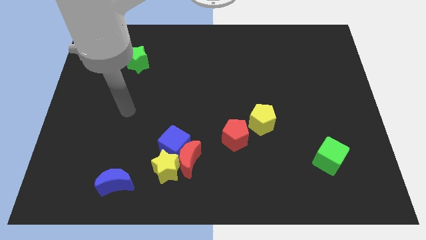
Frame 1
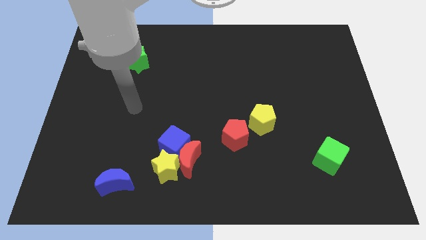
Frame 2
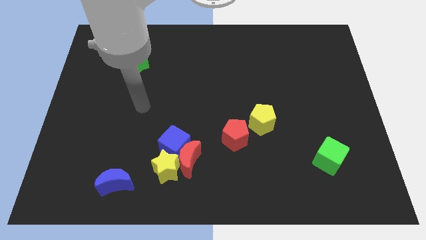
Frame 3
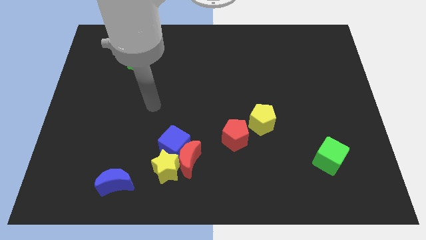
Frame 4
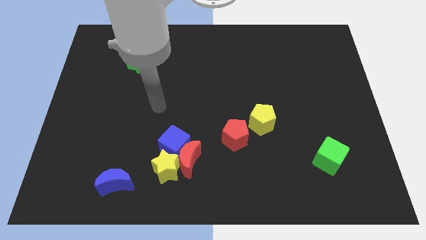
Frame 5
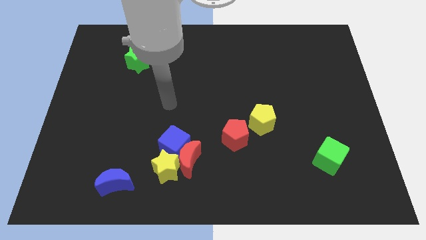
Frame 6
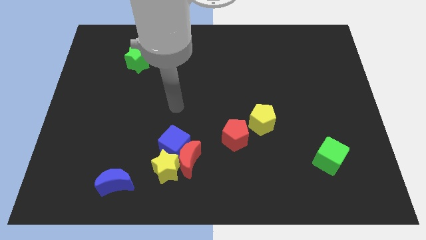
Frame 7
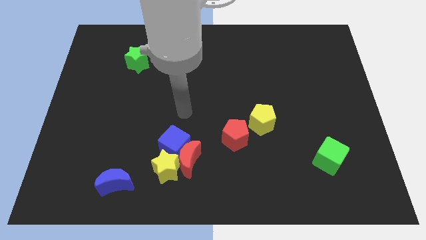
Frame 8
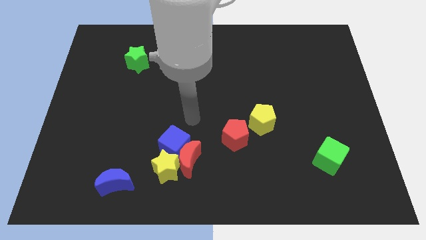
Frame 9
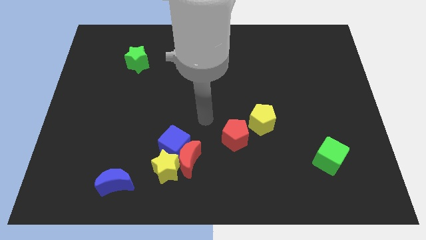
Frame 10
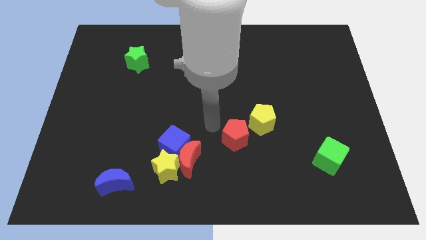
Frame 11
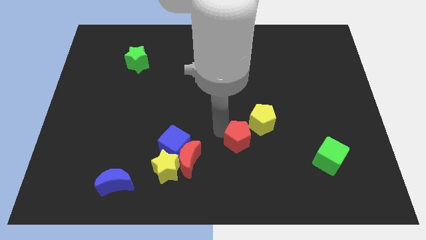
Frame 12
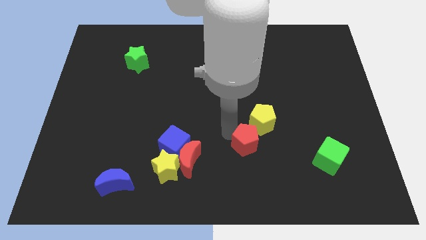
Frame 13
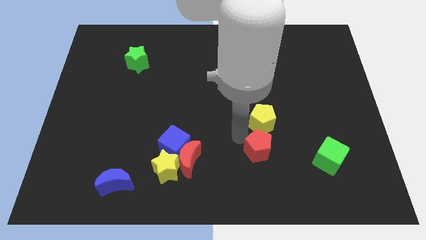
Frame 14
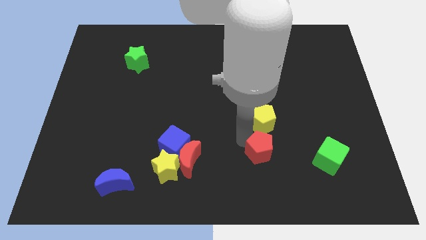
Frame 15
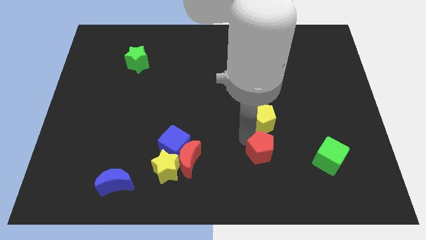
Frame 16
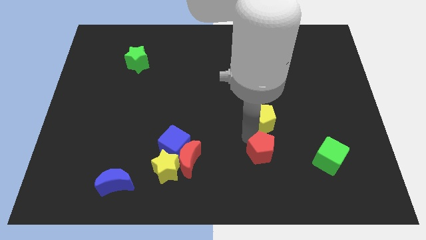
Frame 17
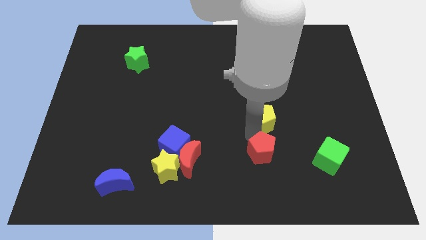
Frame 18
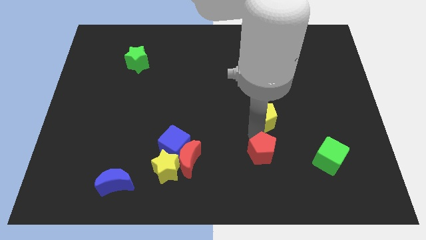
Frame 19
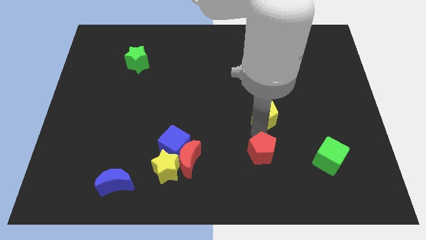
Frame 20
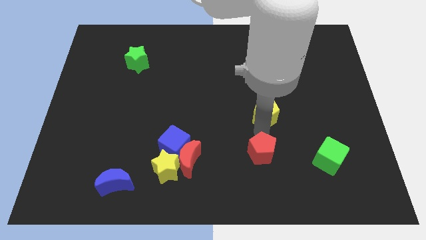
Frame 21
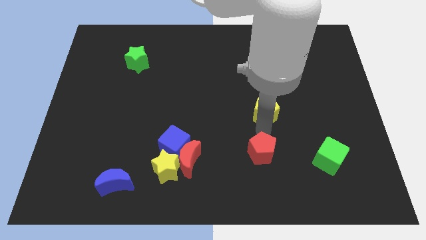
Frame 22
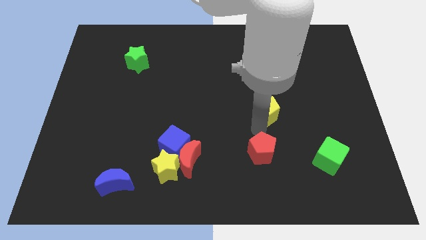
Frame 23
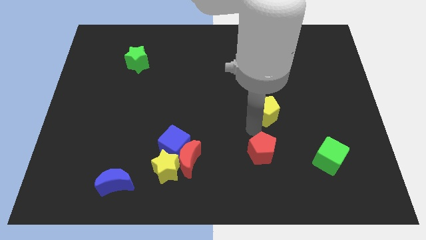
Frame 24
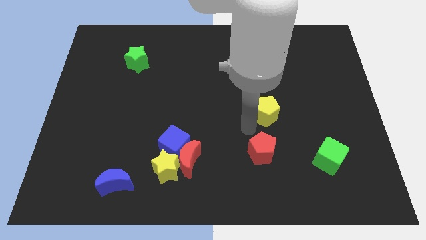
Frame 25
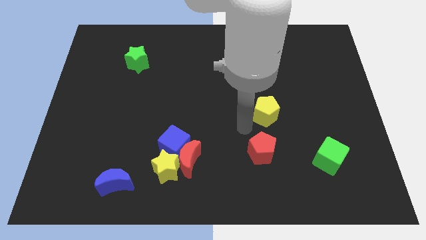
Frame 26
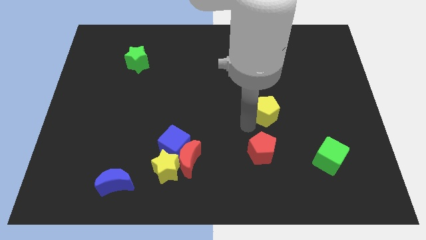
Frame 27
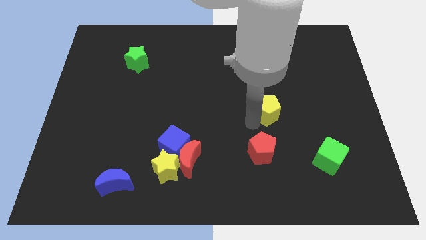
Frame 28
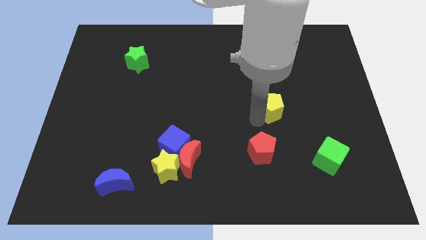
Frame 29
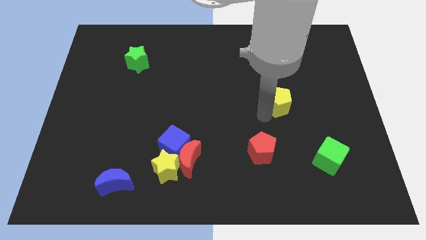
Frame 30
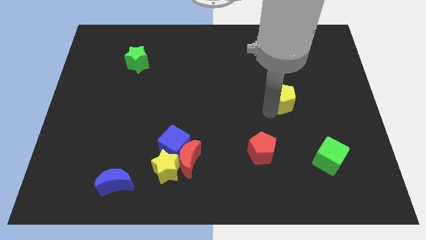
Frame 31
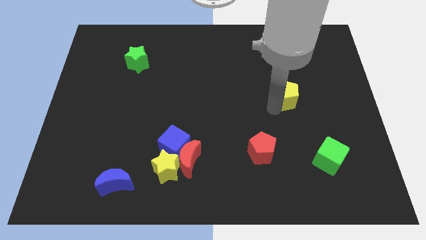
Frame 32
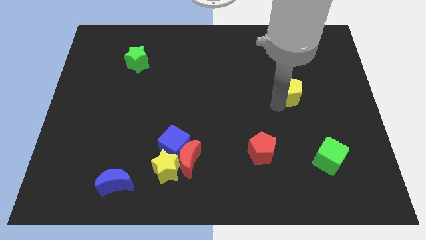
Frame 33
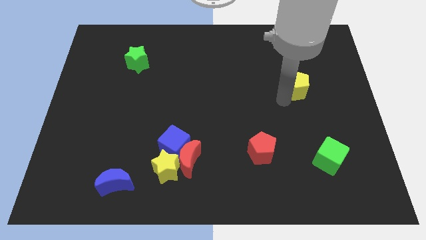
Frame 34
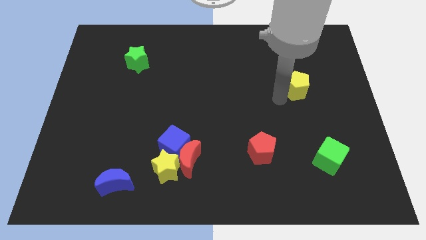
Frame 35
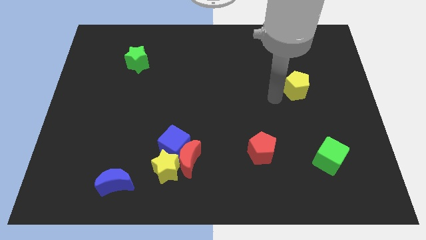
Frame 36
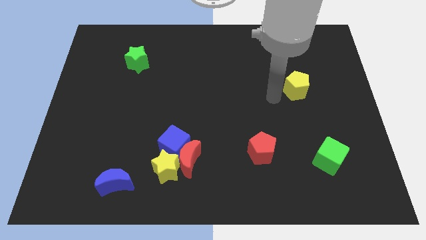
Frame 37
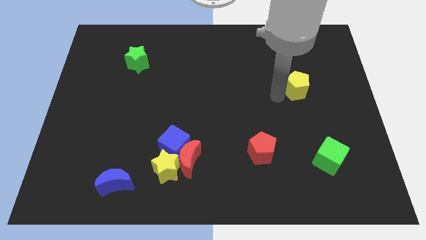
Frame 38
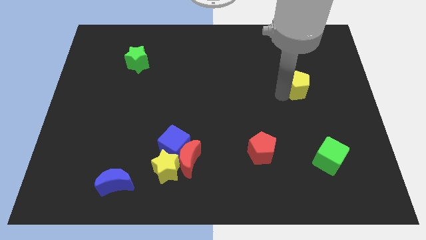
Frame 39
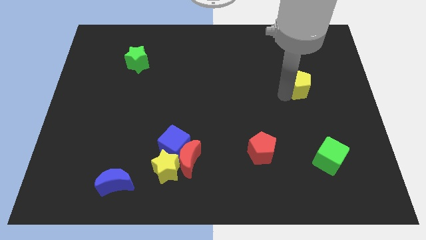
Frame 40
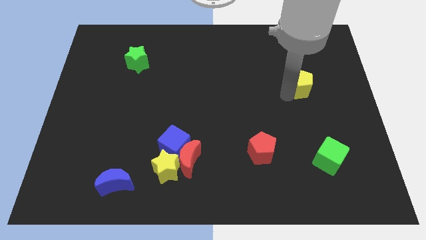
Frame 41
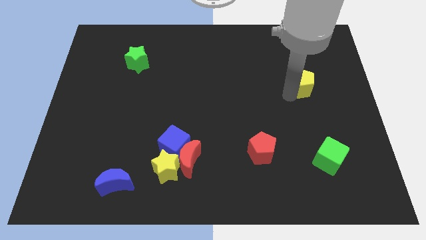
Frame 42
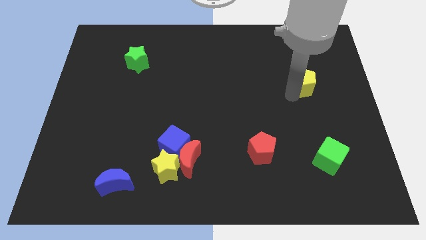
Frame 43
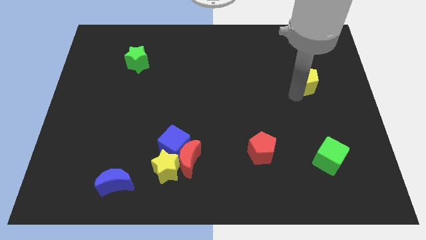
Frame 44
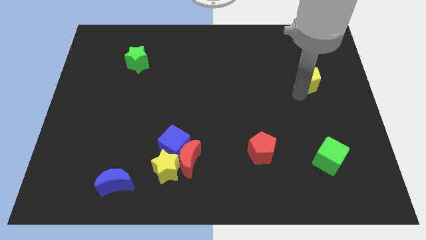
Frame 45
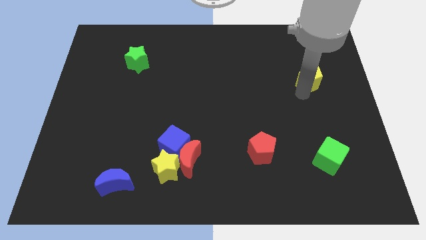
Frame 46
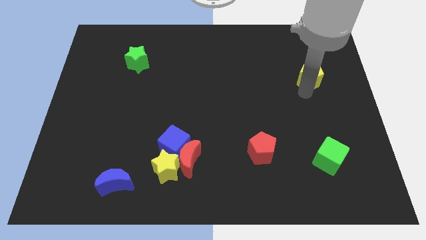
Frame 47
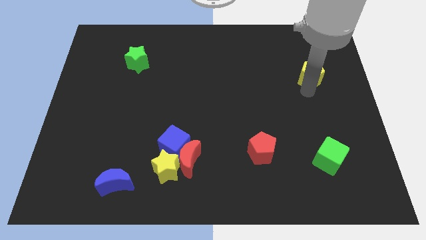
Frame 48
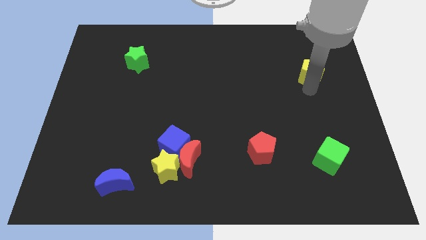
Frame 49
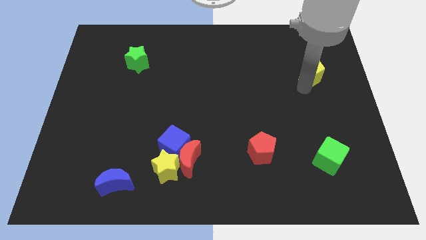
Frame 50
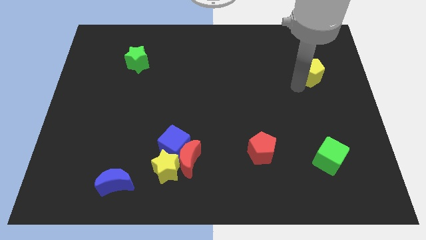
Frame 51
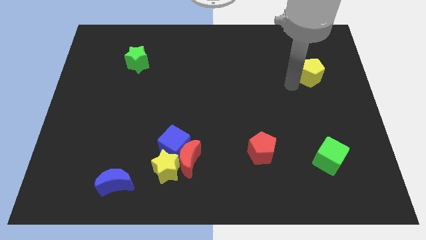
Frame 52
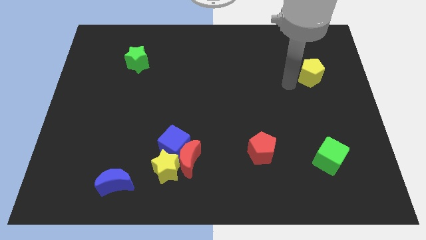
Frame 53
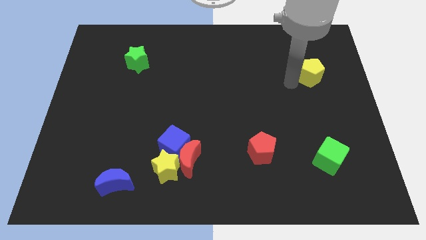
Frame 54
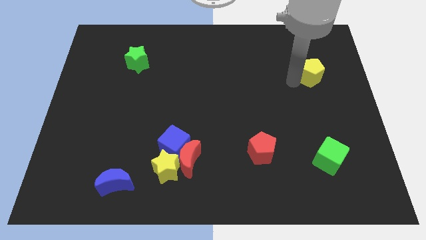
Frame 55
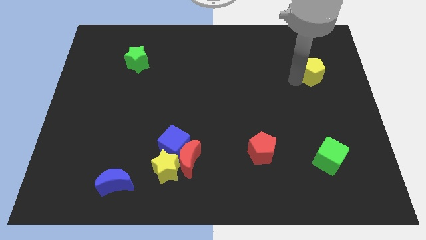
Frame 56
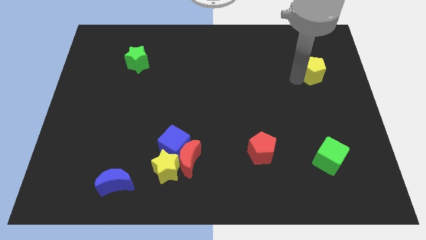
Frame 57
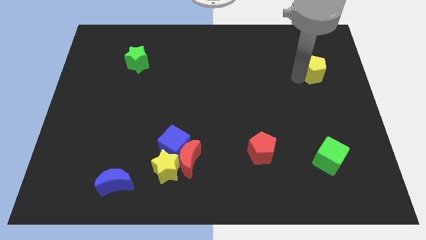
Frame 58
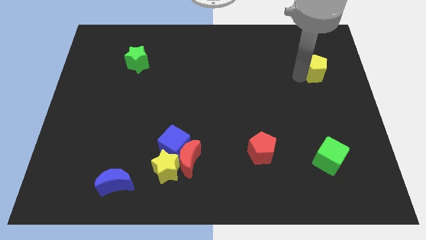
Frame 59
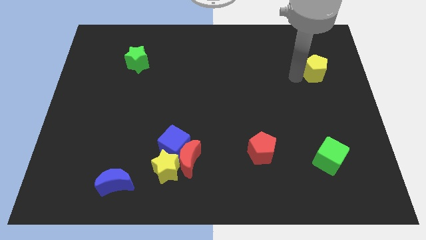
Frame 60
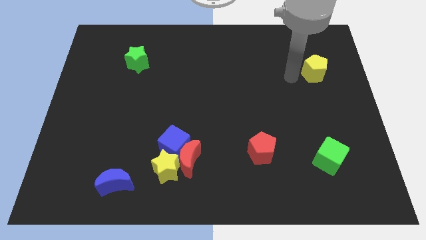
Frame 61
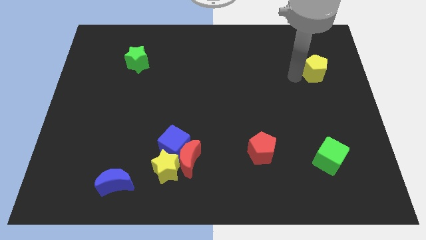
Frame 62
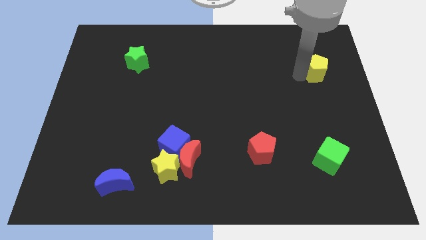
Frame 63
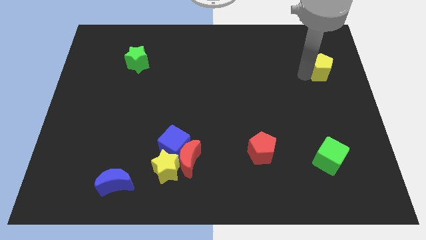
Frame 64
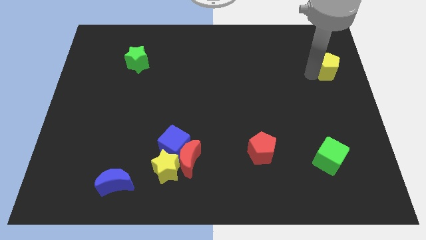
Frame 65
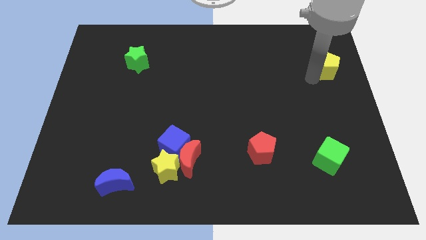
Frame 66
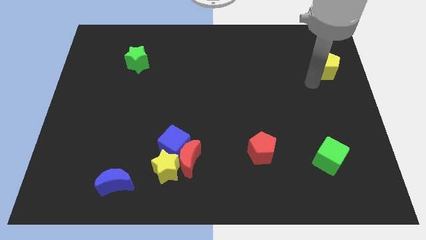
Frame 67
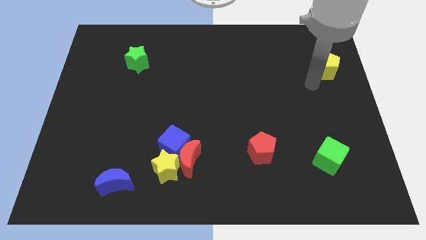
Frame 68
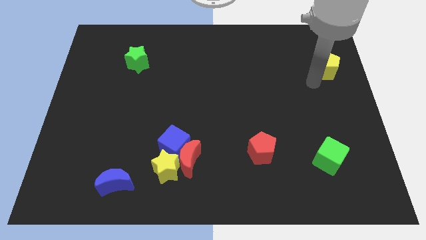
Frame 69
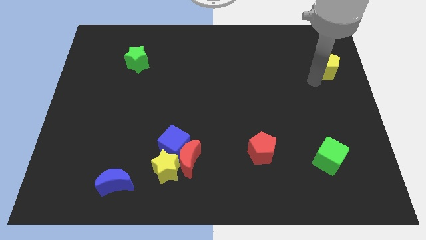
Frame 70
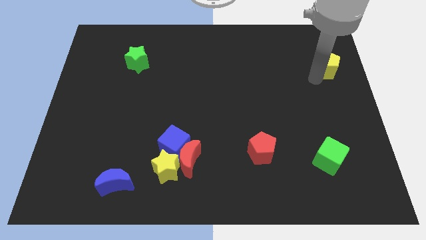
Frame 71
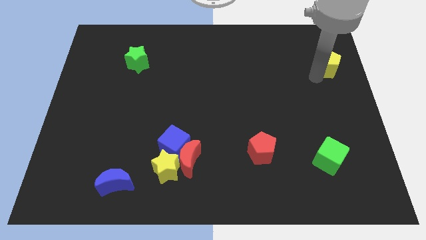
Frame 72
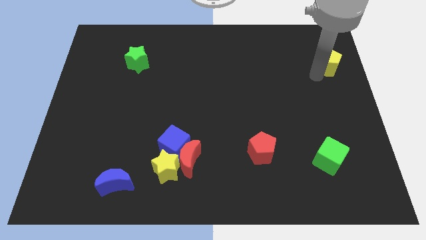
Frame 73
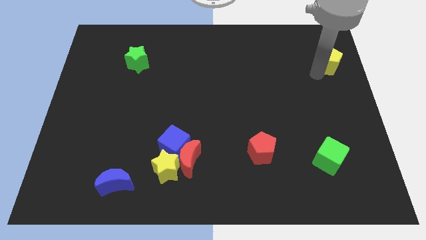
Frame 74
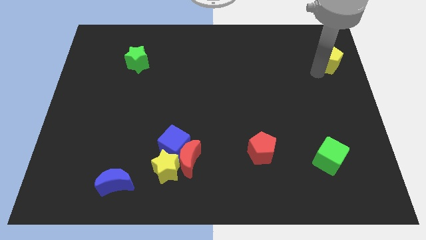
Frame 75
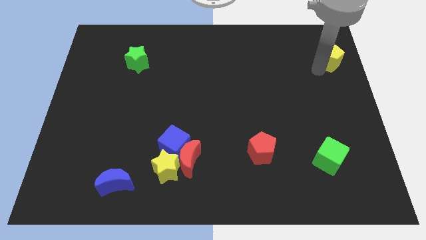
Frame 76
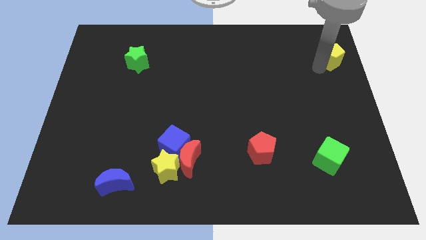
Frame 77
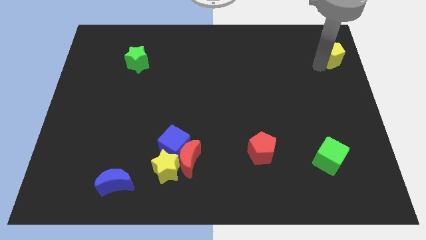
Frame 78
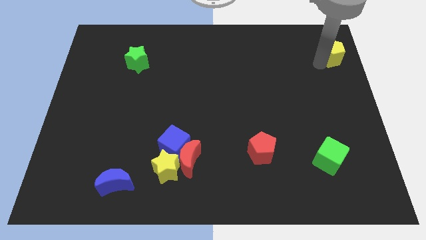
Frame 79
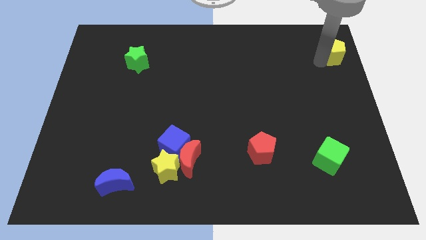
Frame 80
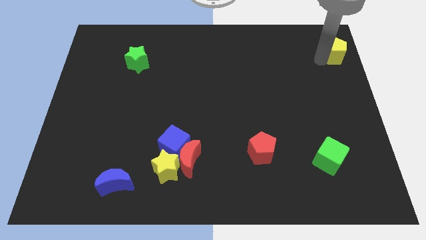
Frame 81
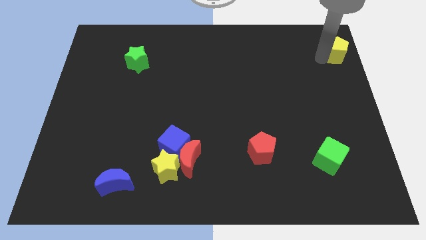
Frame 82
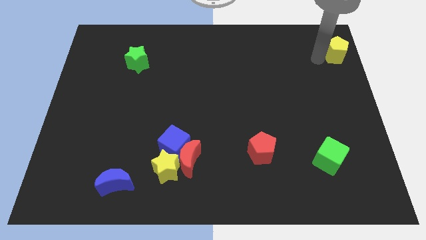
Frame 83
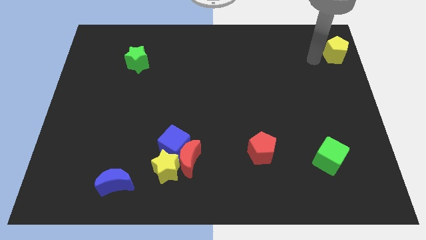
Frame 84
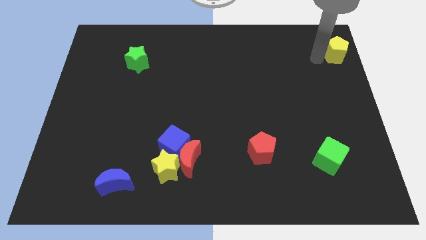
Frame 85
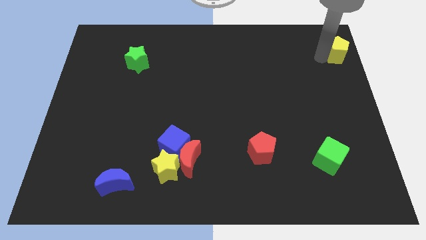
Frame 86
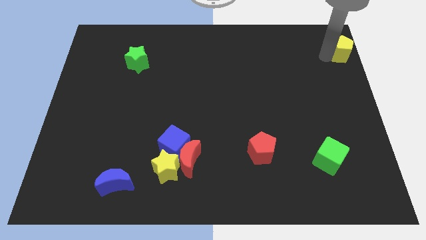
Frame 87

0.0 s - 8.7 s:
slide the yellow pentagon to the top right
